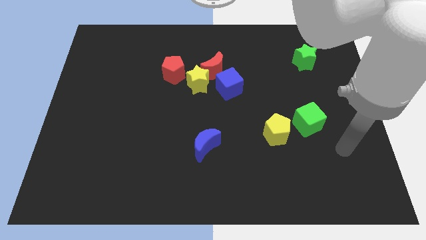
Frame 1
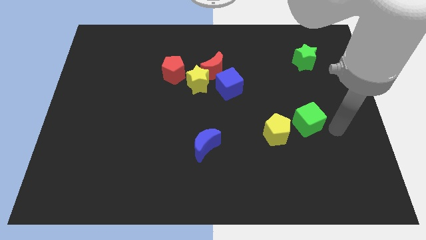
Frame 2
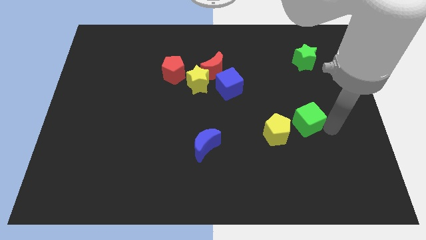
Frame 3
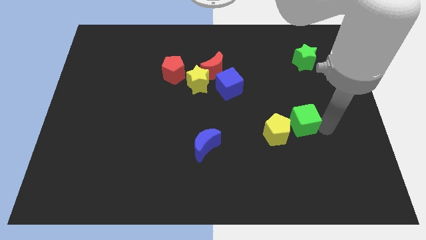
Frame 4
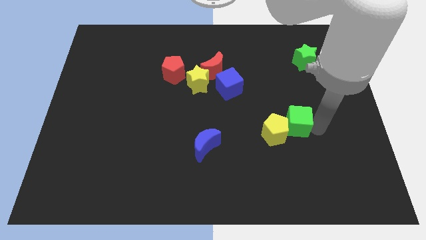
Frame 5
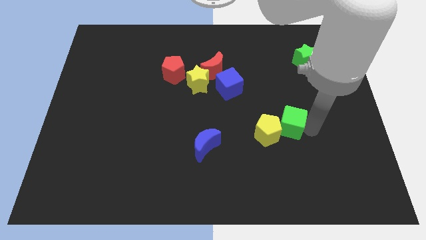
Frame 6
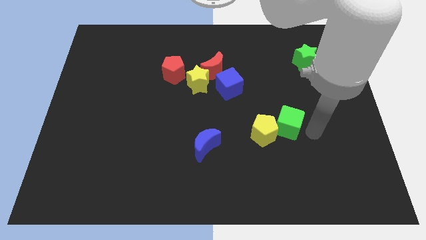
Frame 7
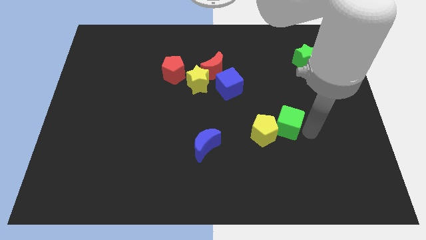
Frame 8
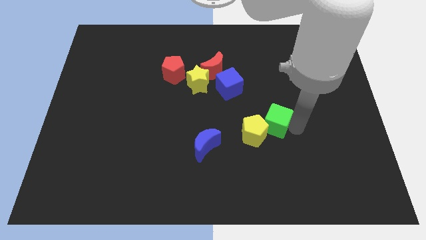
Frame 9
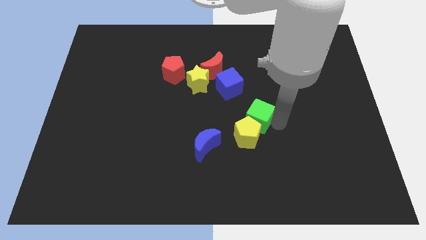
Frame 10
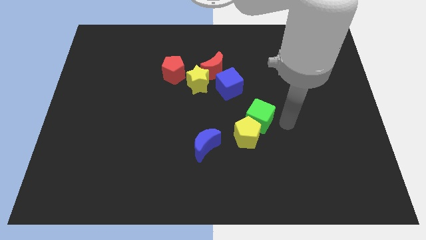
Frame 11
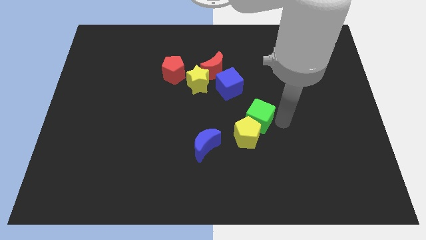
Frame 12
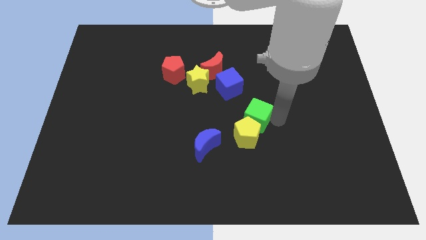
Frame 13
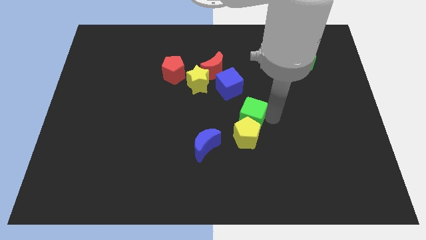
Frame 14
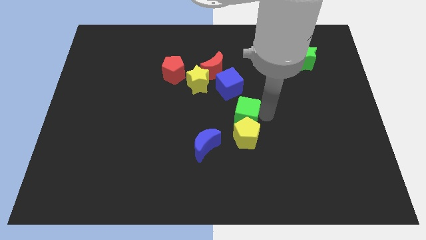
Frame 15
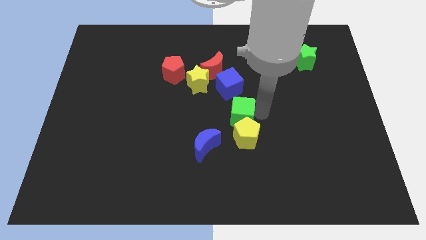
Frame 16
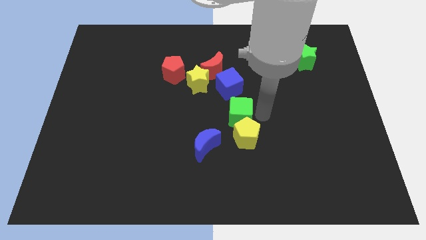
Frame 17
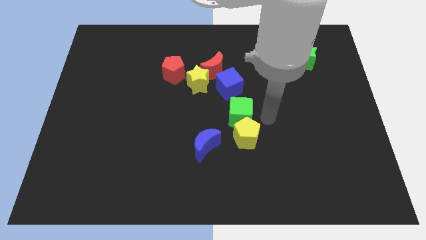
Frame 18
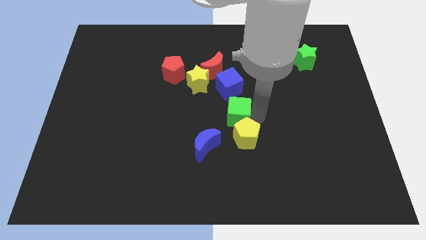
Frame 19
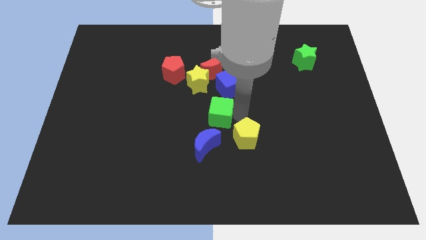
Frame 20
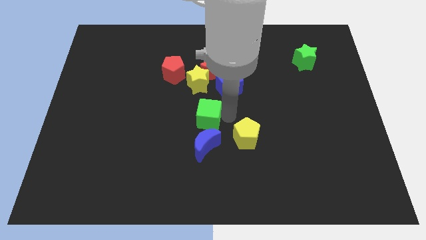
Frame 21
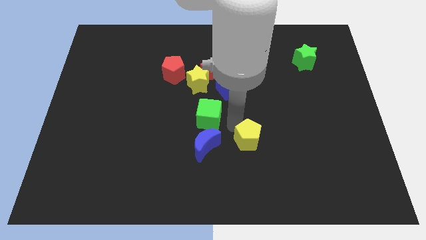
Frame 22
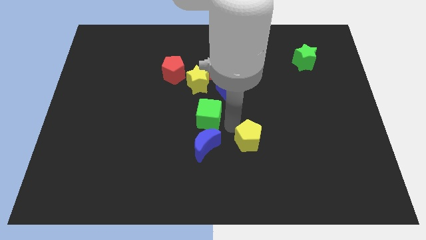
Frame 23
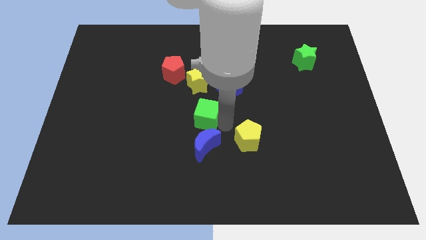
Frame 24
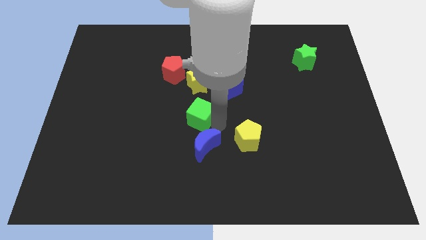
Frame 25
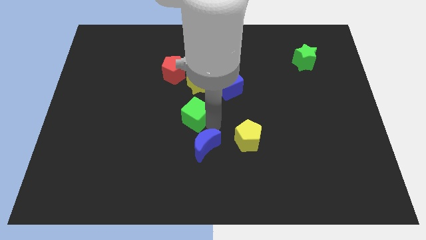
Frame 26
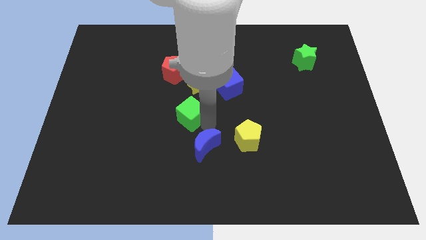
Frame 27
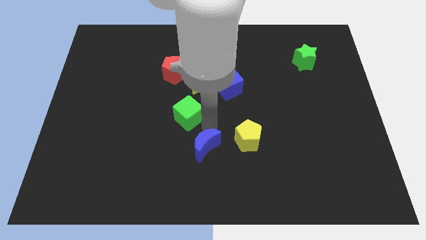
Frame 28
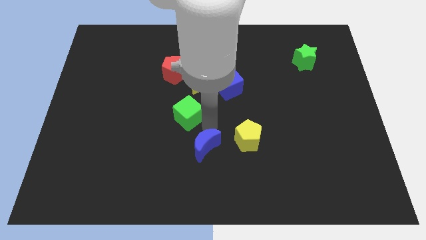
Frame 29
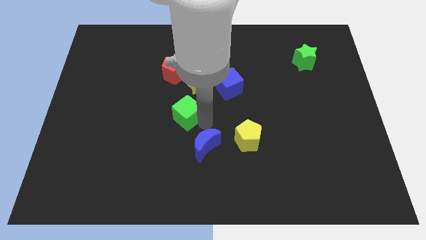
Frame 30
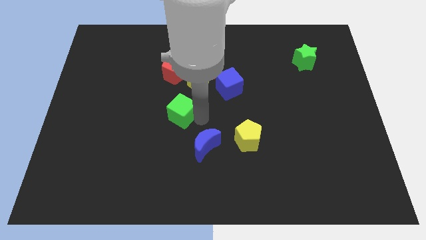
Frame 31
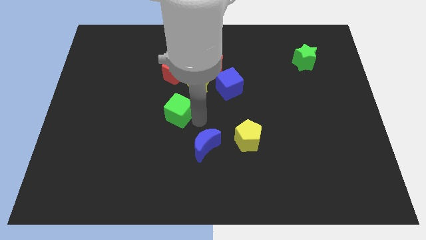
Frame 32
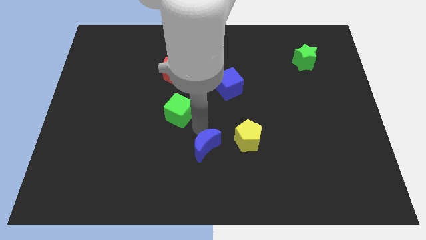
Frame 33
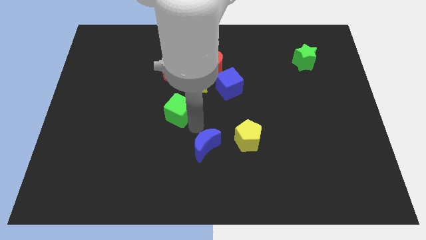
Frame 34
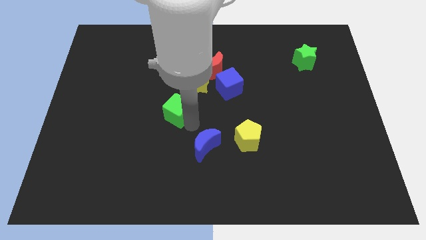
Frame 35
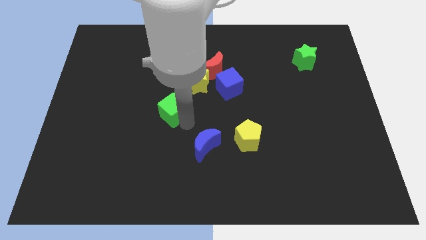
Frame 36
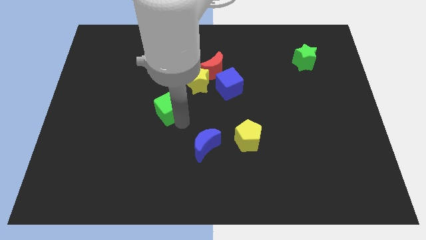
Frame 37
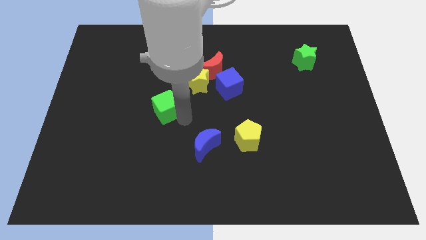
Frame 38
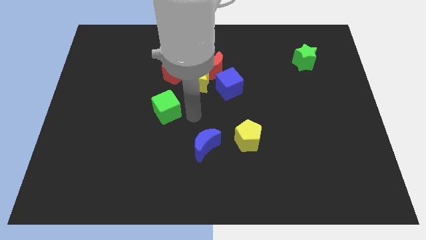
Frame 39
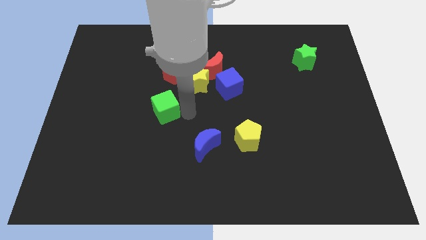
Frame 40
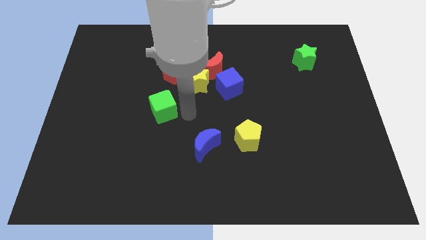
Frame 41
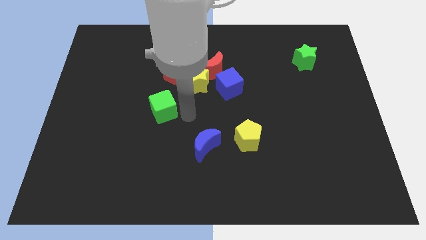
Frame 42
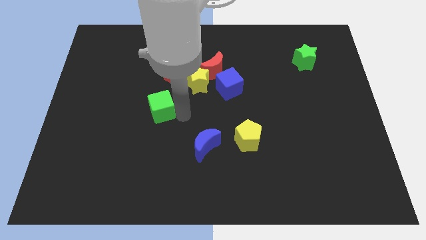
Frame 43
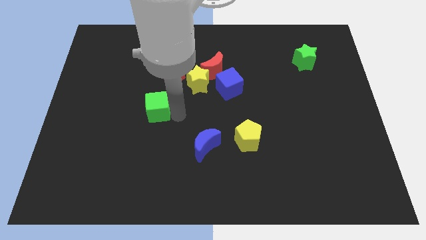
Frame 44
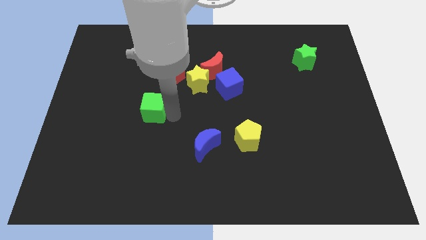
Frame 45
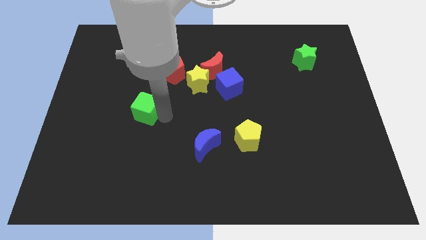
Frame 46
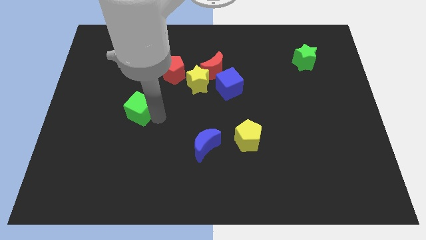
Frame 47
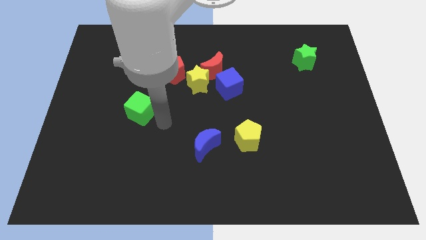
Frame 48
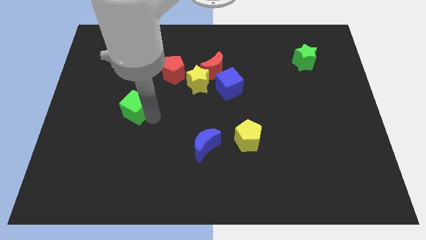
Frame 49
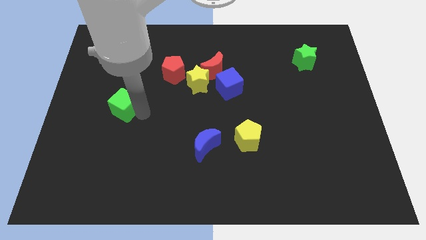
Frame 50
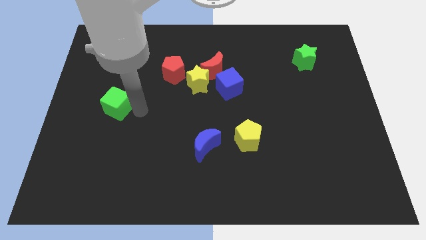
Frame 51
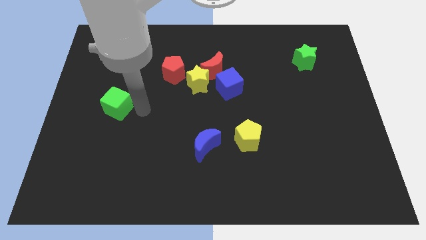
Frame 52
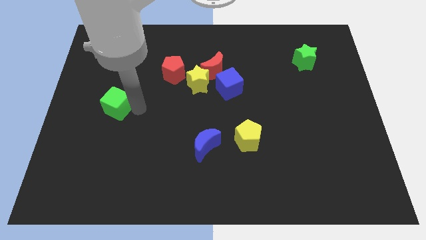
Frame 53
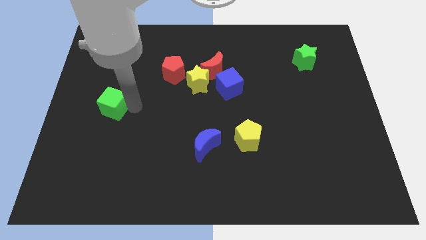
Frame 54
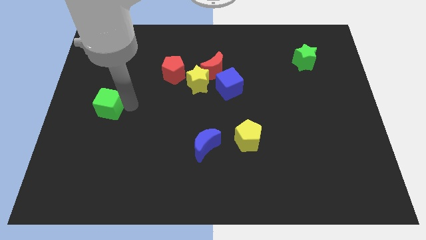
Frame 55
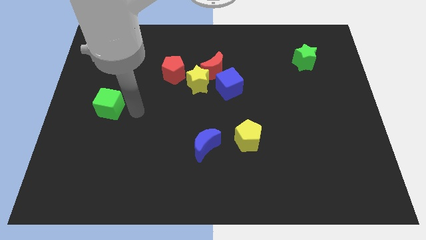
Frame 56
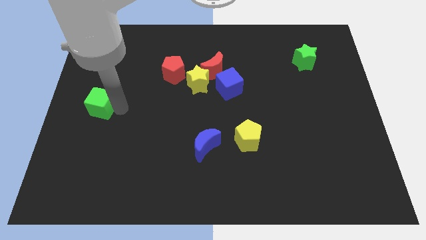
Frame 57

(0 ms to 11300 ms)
put the green cube to the left side
